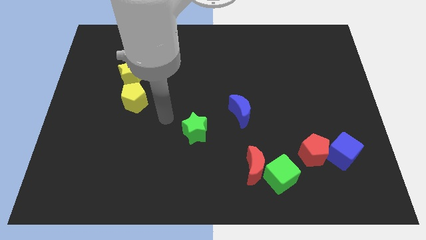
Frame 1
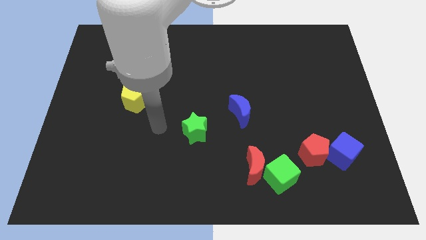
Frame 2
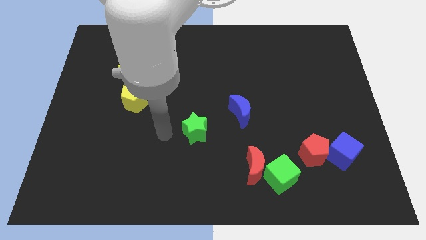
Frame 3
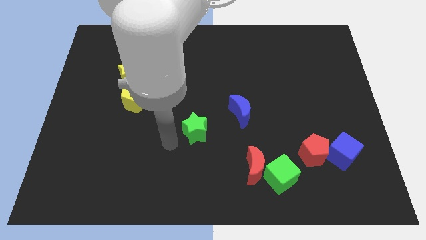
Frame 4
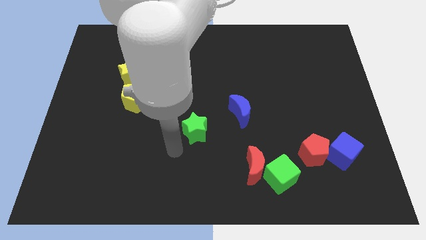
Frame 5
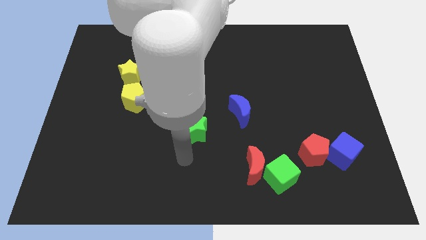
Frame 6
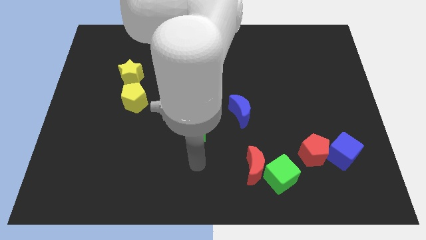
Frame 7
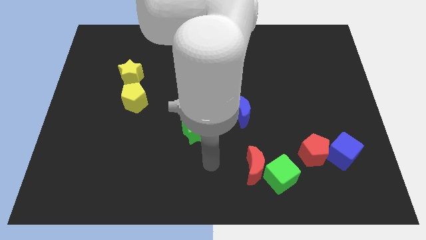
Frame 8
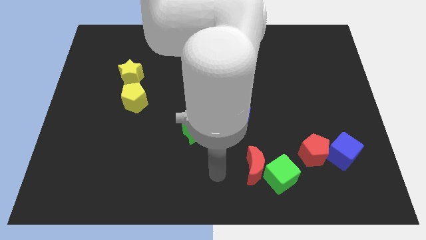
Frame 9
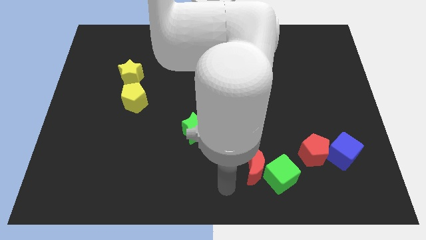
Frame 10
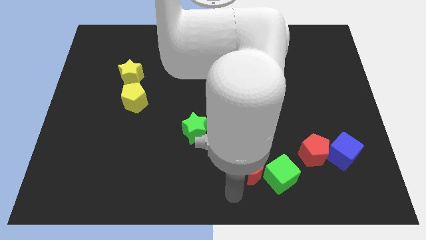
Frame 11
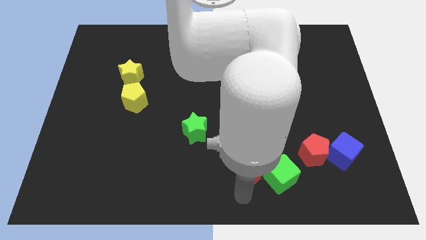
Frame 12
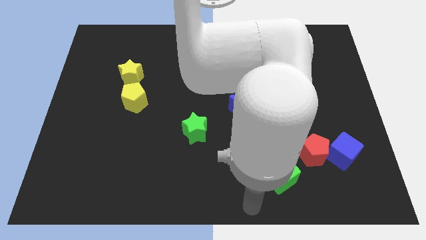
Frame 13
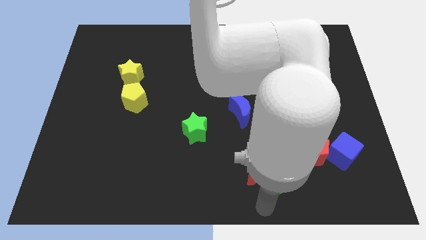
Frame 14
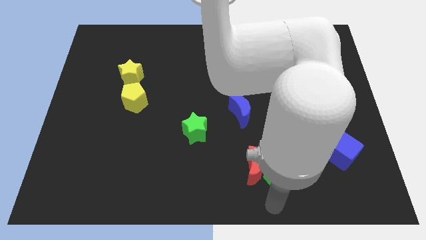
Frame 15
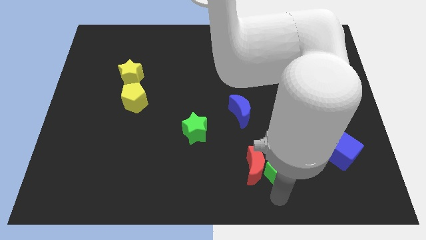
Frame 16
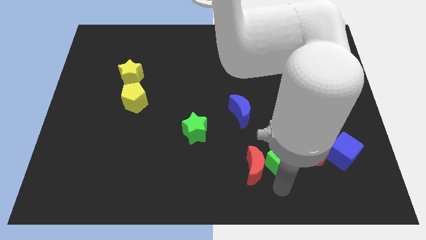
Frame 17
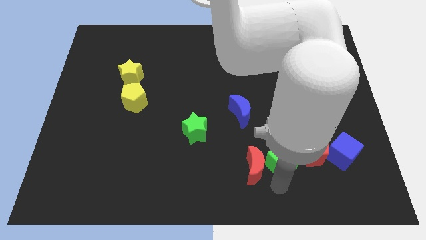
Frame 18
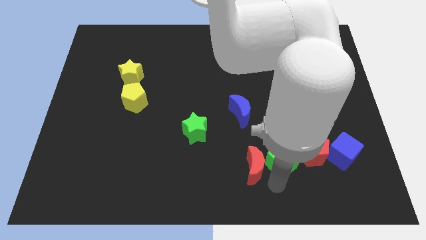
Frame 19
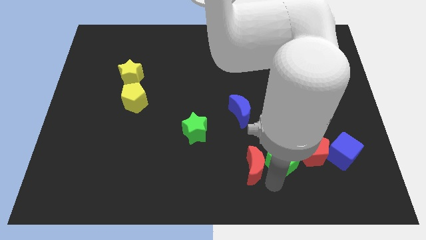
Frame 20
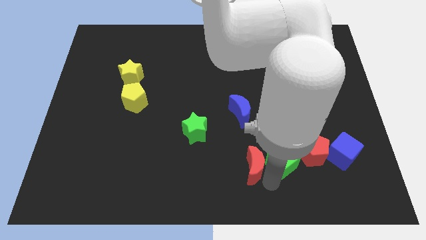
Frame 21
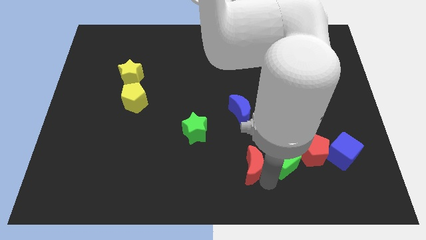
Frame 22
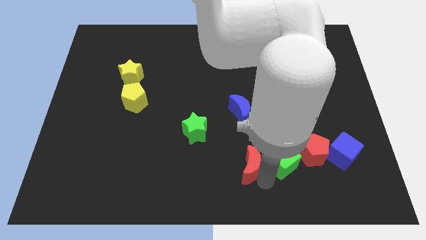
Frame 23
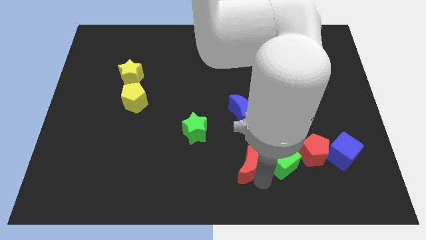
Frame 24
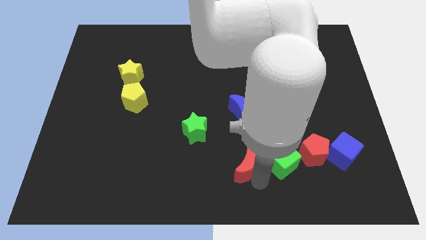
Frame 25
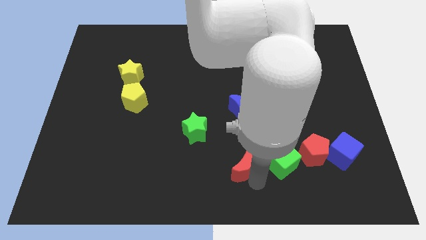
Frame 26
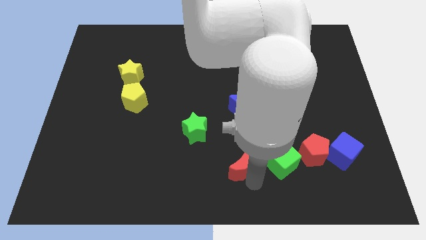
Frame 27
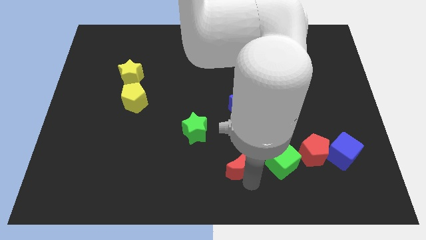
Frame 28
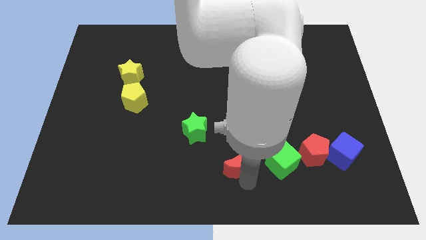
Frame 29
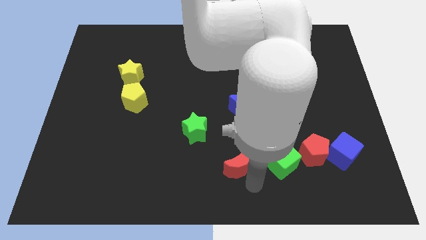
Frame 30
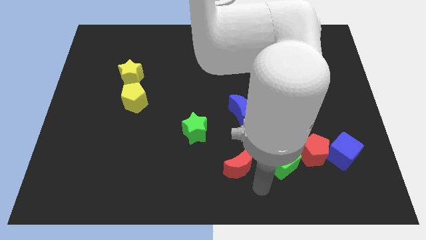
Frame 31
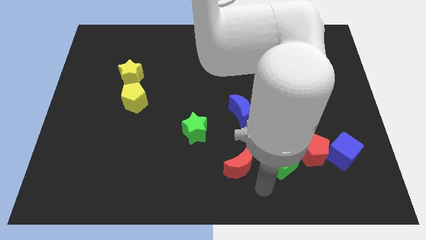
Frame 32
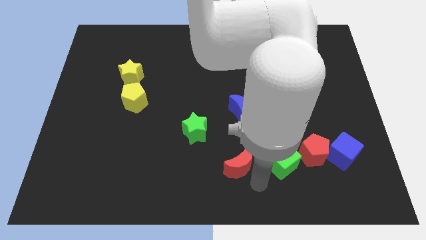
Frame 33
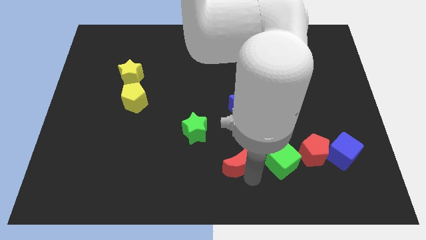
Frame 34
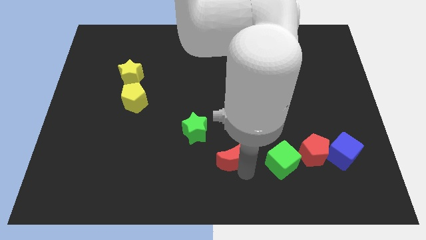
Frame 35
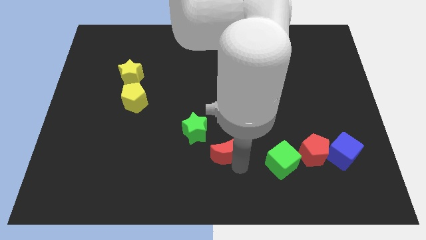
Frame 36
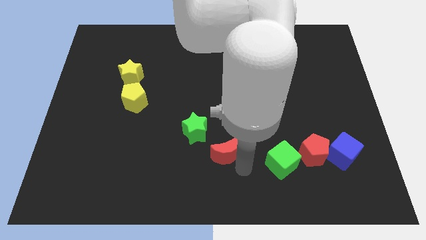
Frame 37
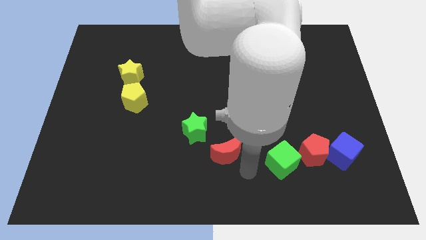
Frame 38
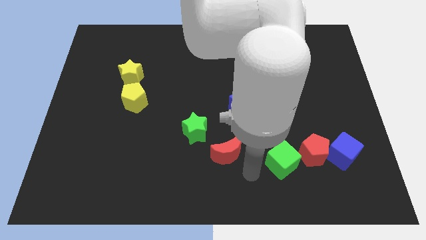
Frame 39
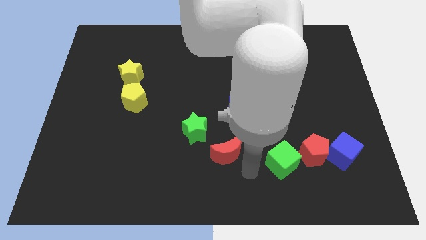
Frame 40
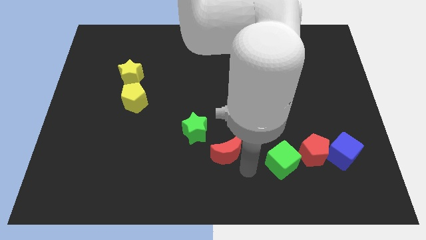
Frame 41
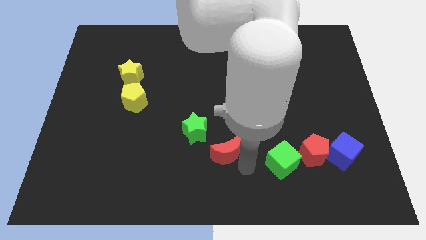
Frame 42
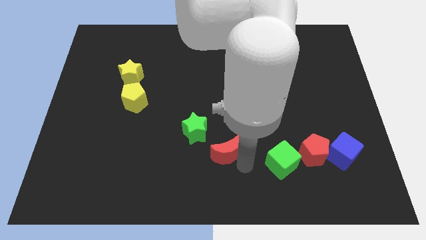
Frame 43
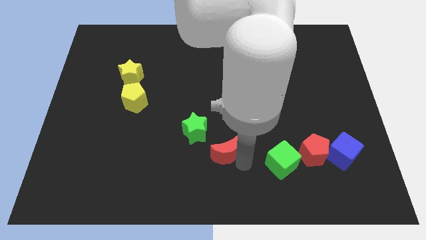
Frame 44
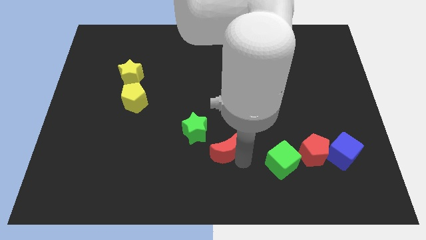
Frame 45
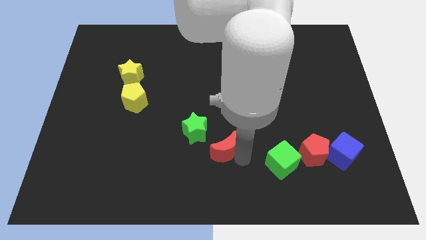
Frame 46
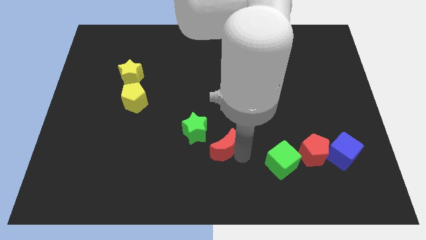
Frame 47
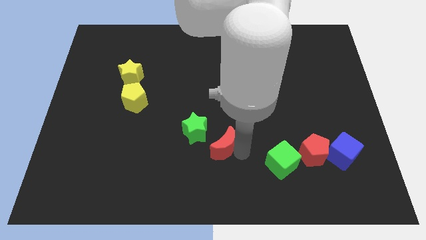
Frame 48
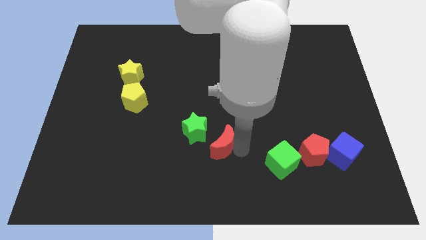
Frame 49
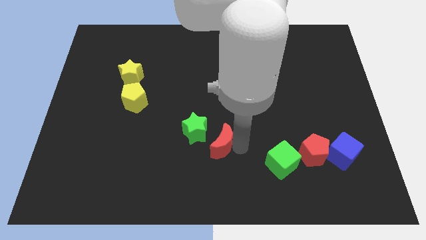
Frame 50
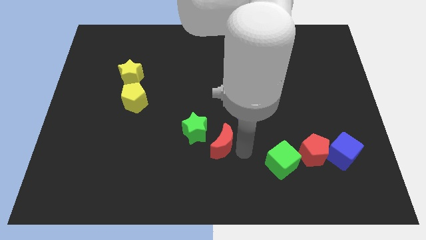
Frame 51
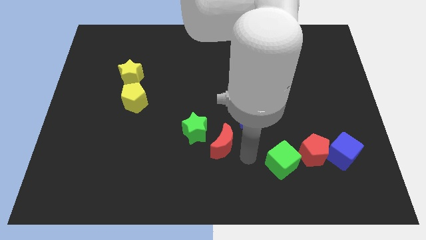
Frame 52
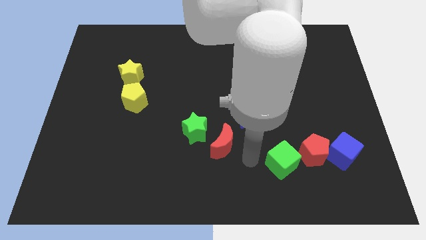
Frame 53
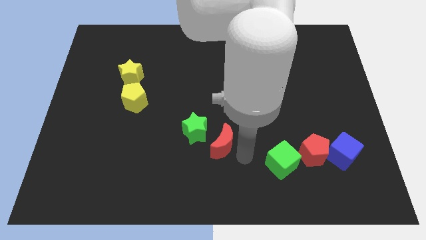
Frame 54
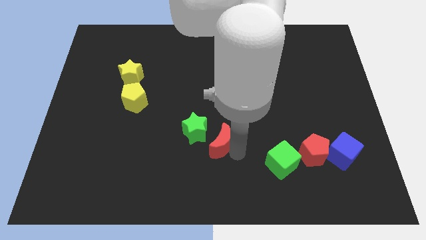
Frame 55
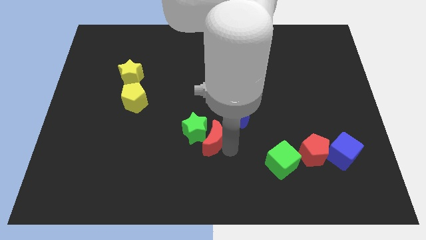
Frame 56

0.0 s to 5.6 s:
move the red moon close to the green star

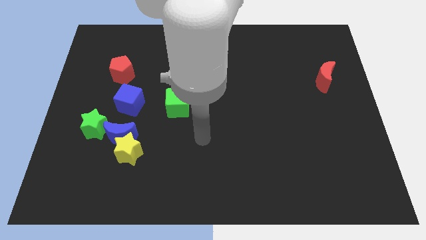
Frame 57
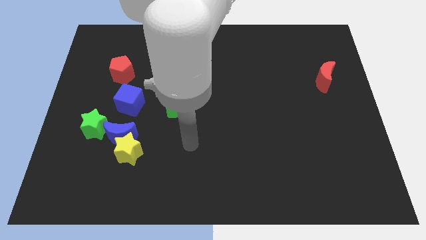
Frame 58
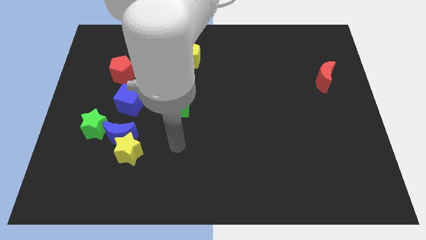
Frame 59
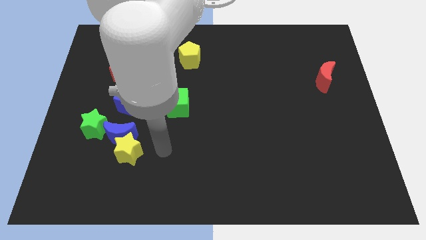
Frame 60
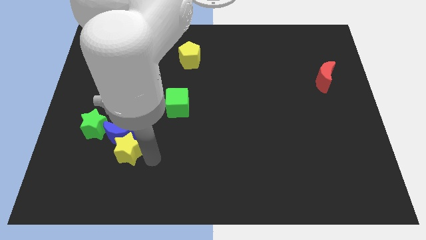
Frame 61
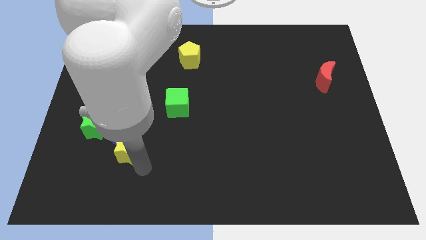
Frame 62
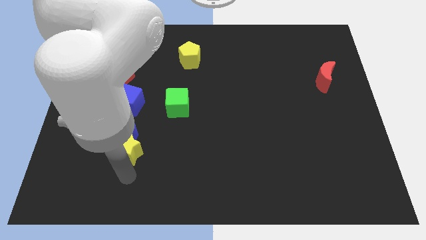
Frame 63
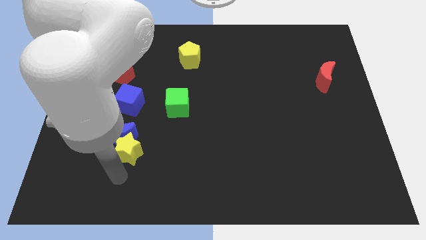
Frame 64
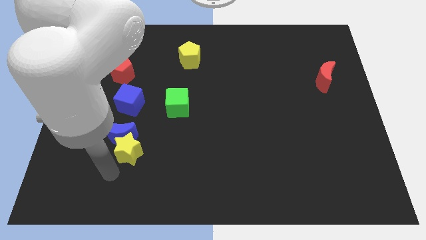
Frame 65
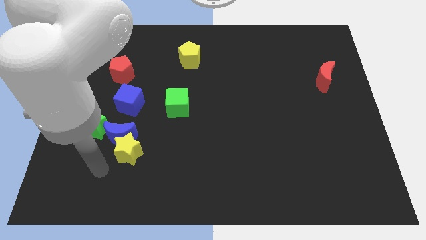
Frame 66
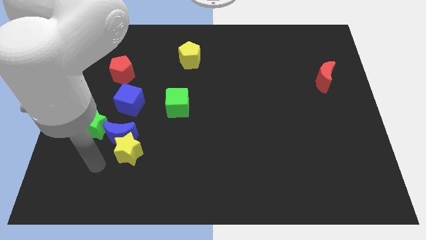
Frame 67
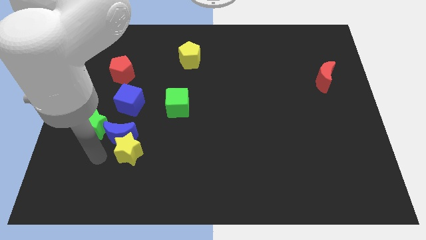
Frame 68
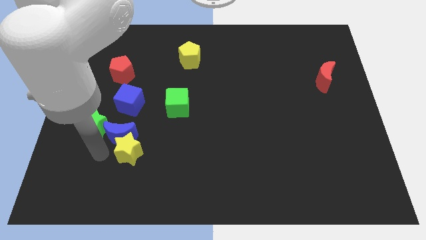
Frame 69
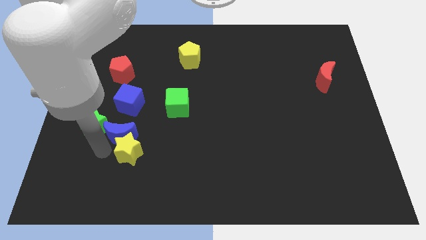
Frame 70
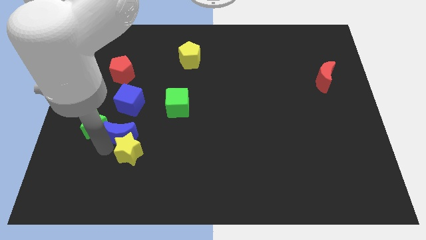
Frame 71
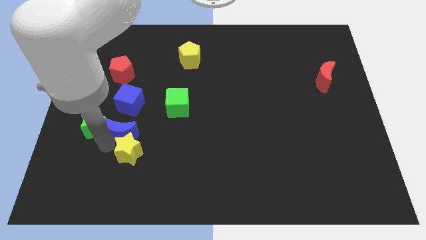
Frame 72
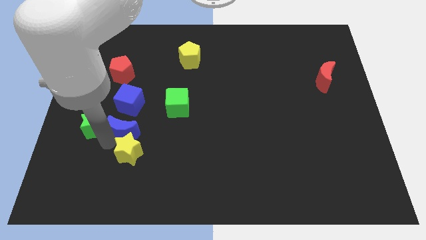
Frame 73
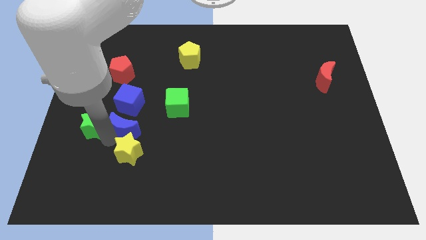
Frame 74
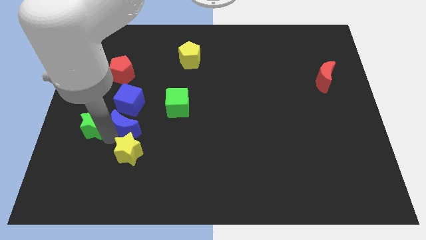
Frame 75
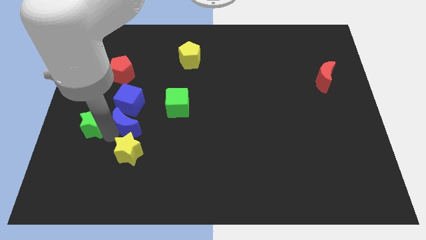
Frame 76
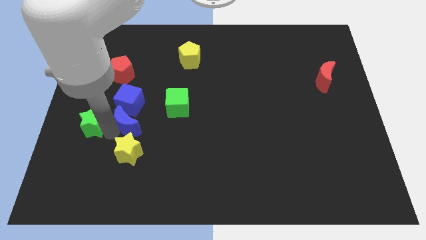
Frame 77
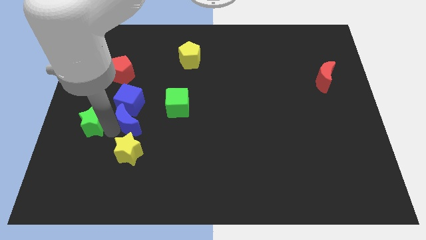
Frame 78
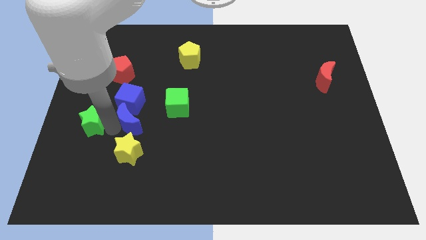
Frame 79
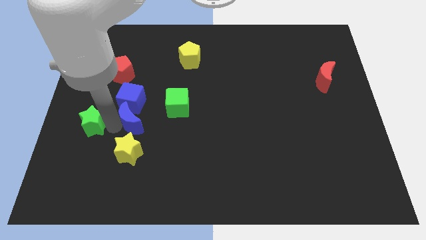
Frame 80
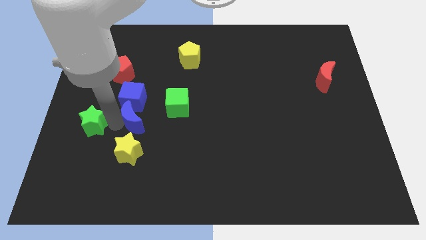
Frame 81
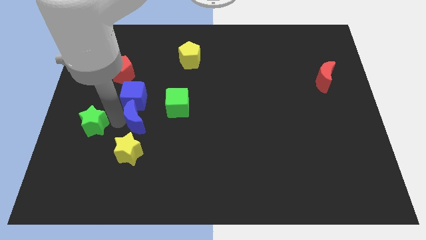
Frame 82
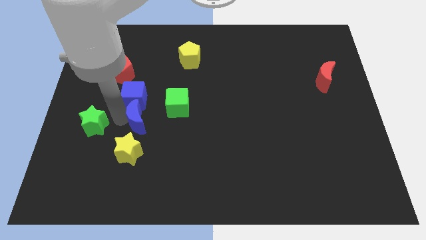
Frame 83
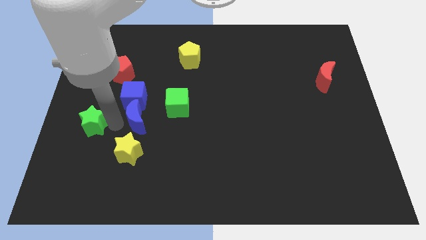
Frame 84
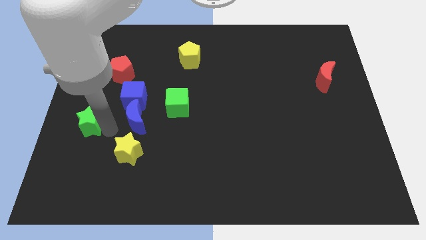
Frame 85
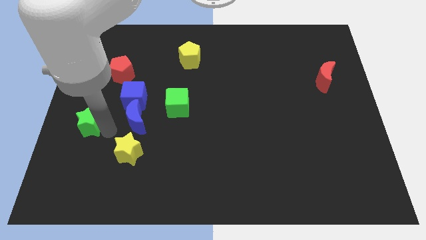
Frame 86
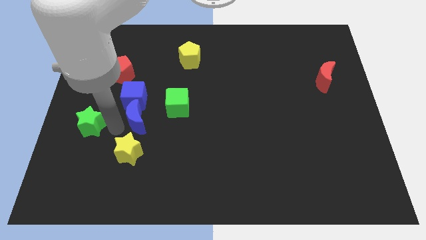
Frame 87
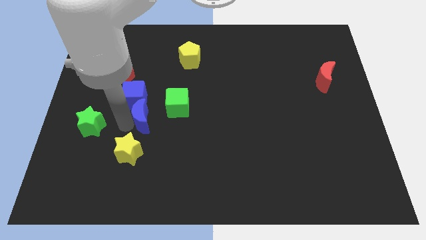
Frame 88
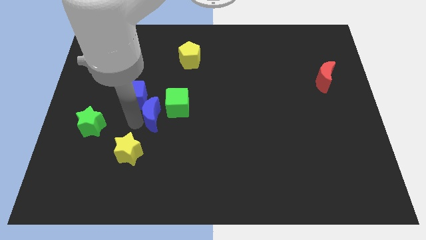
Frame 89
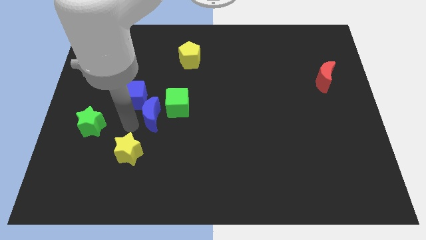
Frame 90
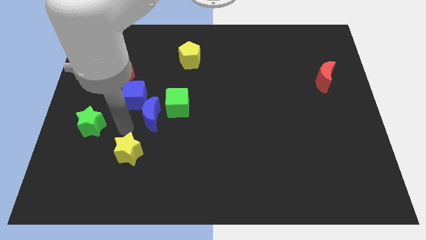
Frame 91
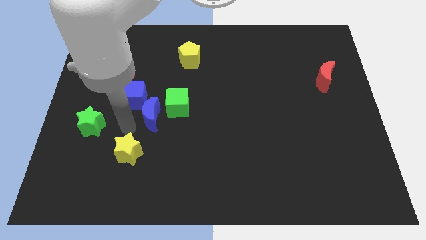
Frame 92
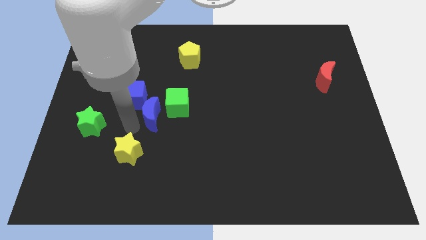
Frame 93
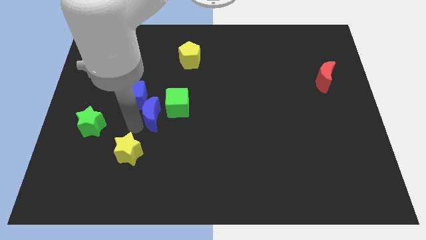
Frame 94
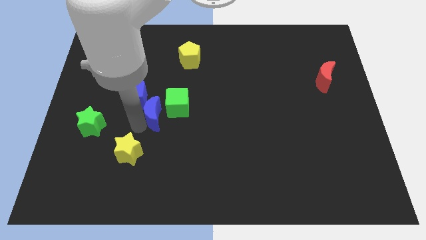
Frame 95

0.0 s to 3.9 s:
push the blue moon towards the green cube
